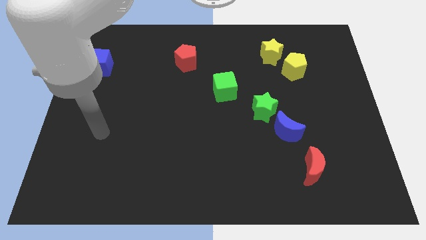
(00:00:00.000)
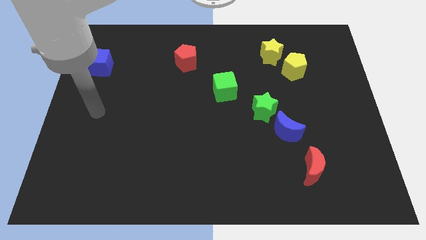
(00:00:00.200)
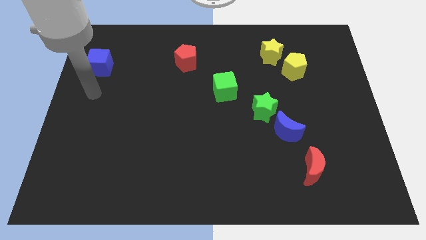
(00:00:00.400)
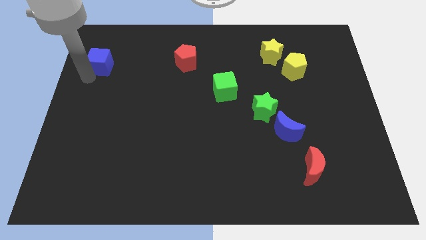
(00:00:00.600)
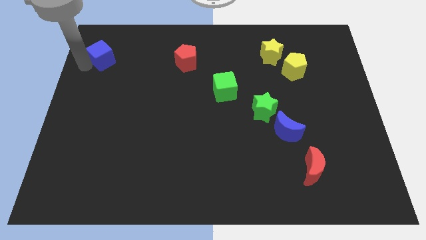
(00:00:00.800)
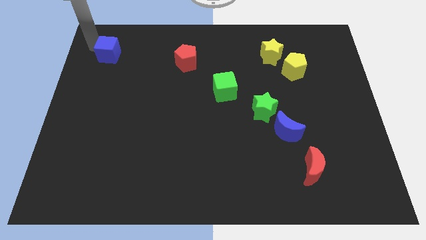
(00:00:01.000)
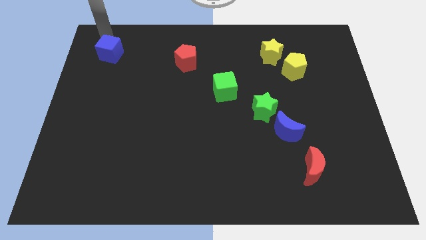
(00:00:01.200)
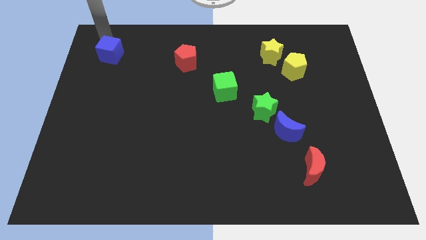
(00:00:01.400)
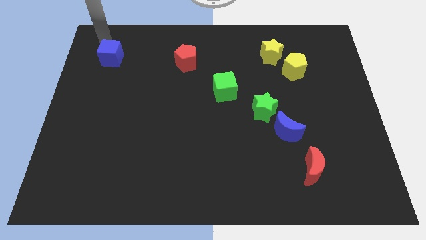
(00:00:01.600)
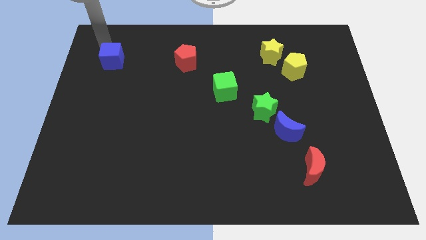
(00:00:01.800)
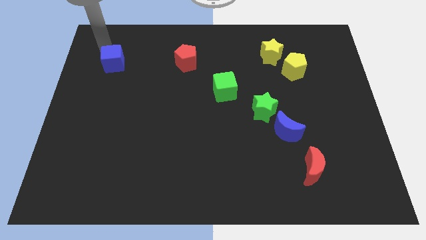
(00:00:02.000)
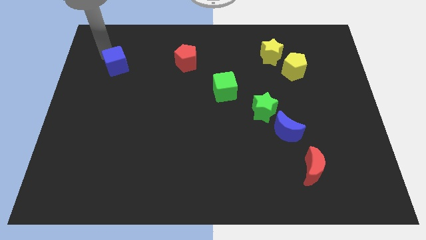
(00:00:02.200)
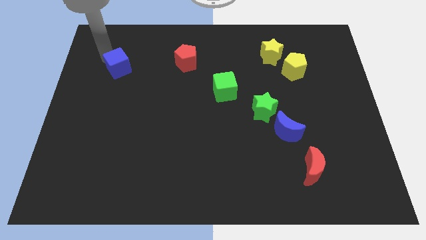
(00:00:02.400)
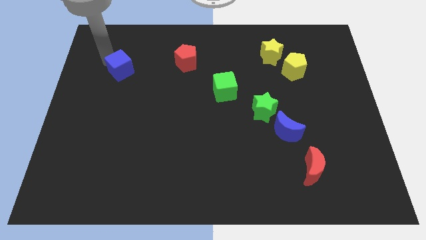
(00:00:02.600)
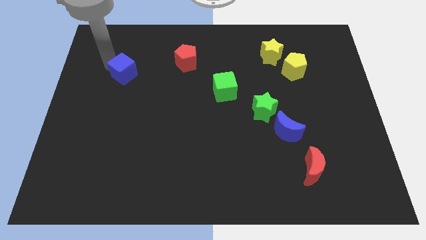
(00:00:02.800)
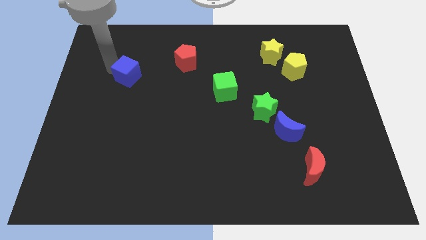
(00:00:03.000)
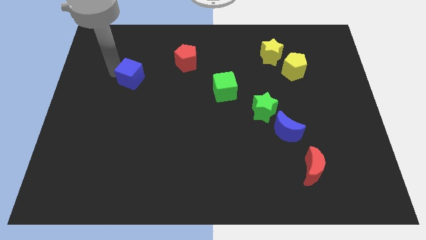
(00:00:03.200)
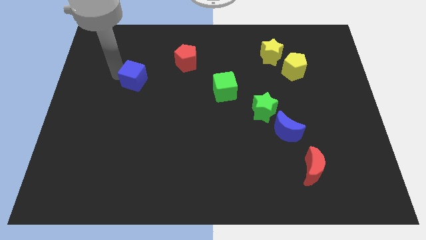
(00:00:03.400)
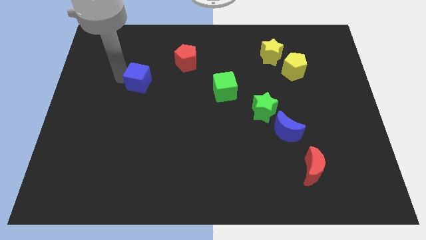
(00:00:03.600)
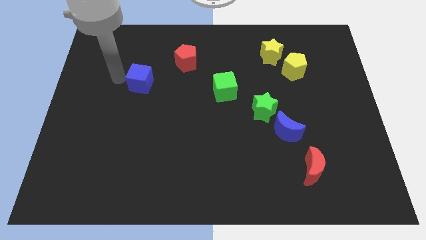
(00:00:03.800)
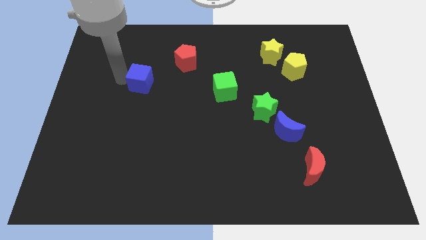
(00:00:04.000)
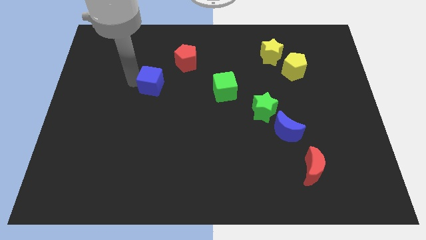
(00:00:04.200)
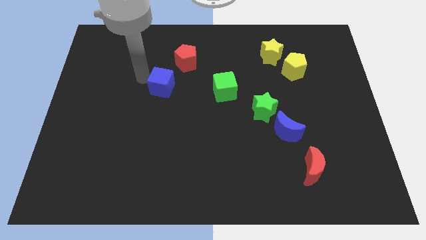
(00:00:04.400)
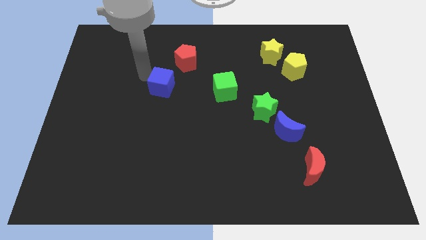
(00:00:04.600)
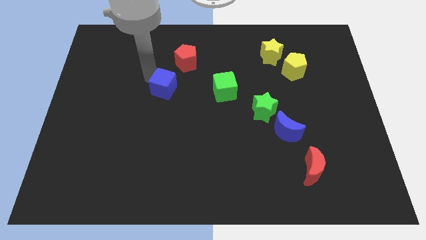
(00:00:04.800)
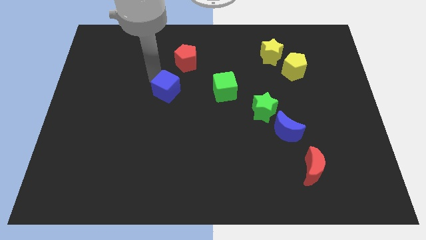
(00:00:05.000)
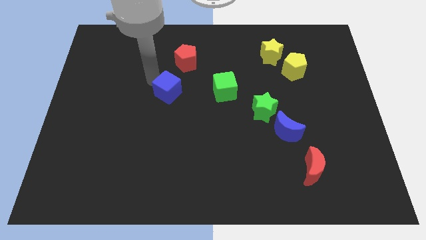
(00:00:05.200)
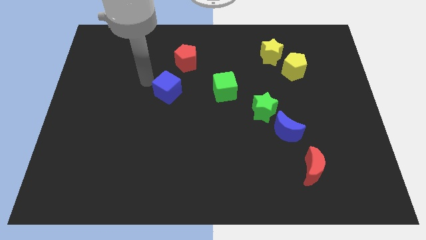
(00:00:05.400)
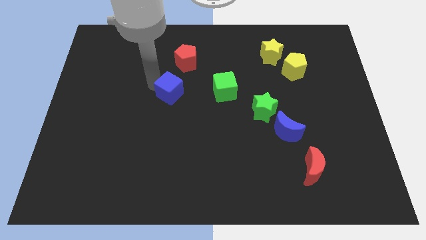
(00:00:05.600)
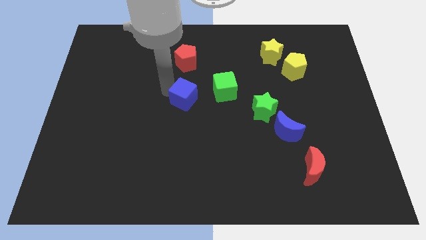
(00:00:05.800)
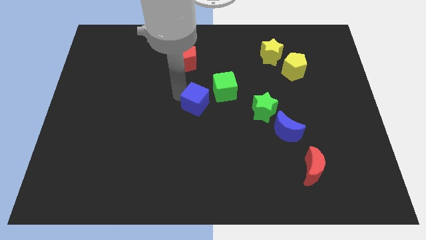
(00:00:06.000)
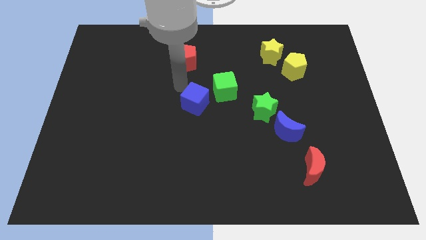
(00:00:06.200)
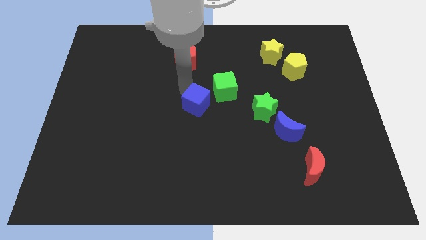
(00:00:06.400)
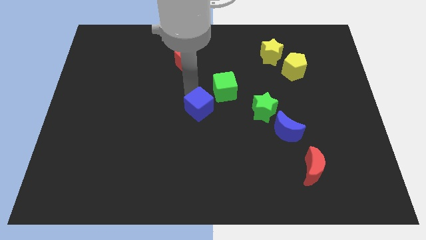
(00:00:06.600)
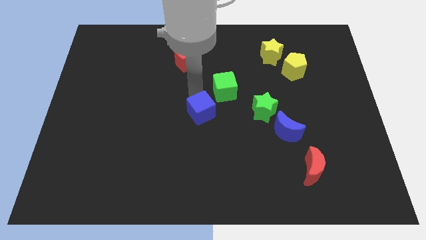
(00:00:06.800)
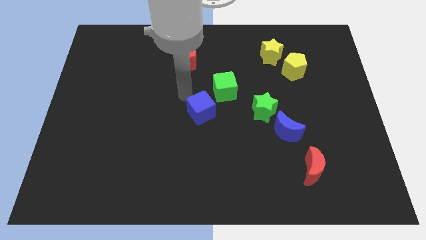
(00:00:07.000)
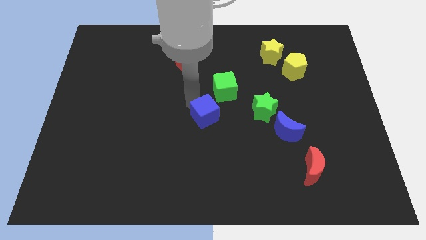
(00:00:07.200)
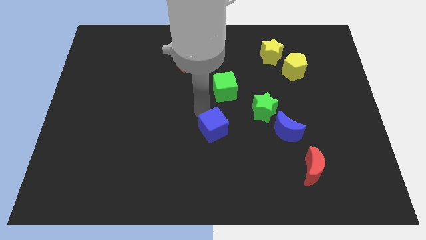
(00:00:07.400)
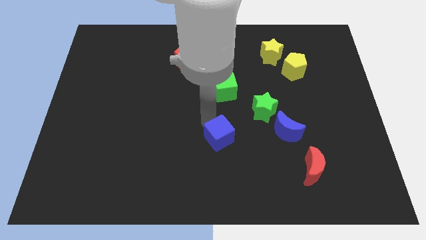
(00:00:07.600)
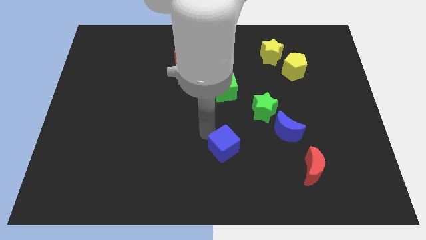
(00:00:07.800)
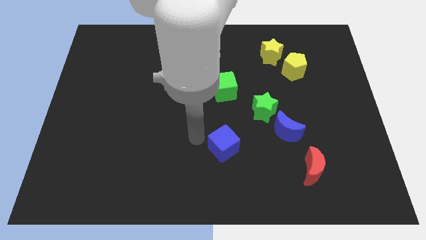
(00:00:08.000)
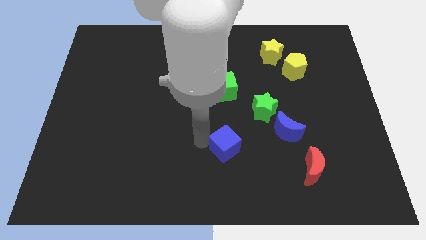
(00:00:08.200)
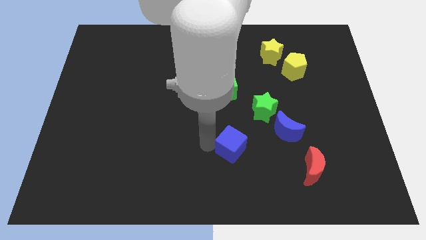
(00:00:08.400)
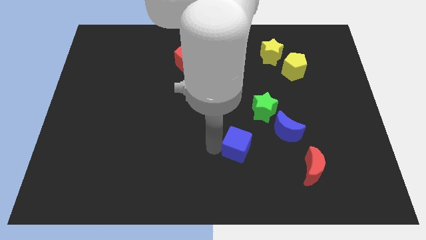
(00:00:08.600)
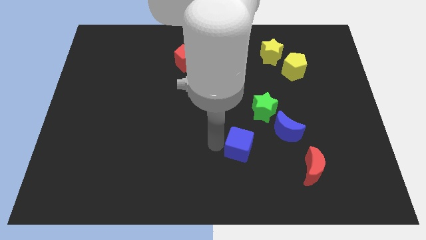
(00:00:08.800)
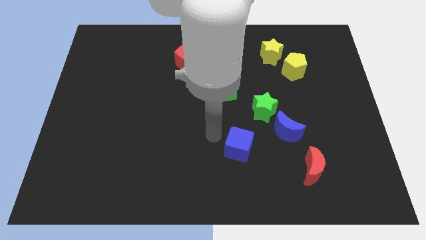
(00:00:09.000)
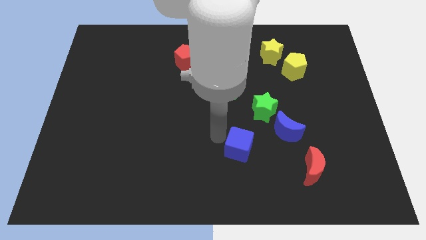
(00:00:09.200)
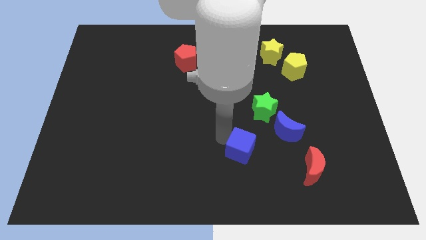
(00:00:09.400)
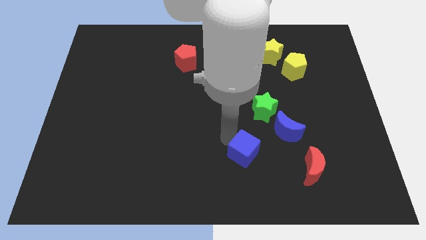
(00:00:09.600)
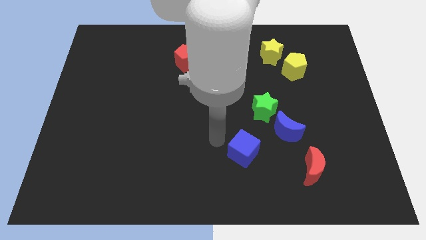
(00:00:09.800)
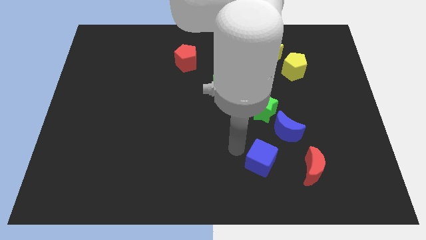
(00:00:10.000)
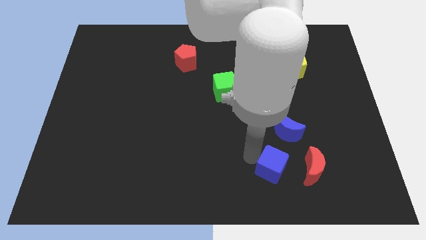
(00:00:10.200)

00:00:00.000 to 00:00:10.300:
slide the blue cube below the blue moon

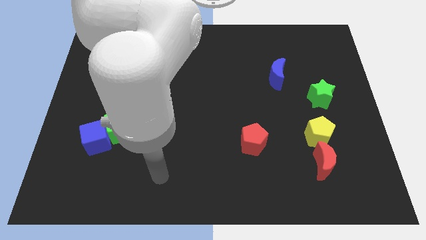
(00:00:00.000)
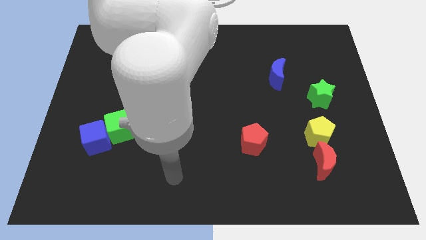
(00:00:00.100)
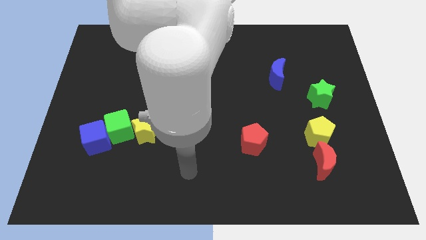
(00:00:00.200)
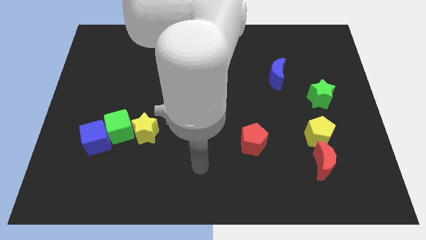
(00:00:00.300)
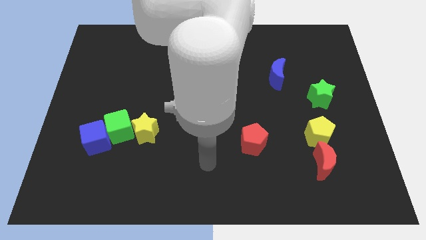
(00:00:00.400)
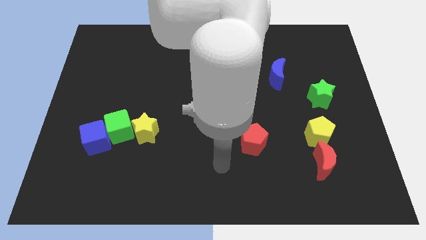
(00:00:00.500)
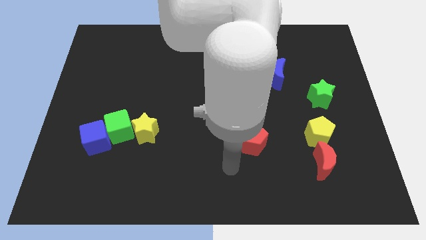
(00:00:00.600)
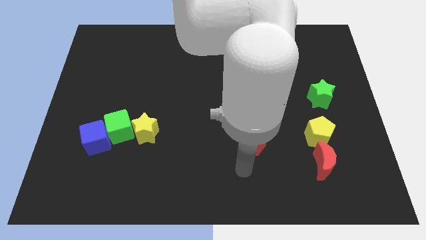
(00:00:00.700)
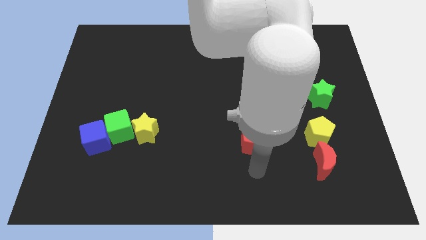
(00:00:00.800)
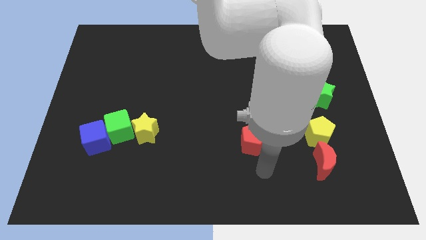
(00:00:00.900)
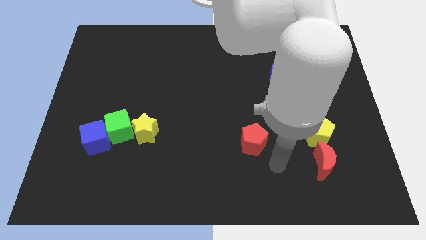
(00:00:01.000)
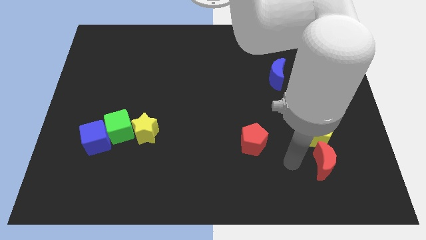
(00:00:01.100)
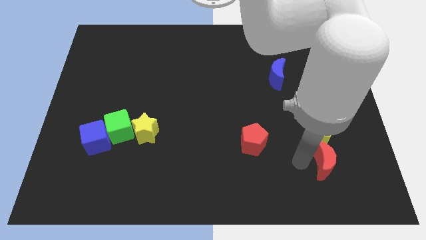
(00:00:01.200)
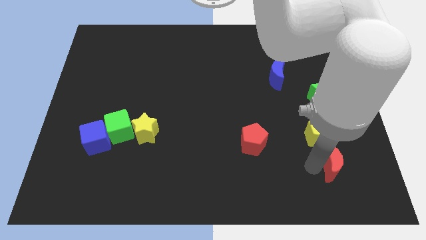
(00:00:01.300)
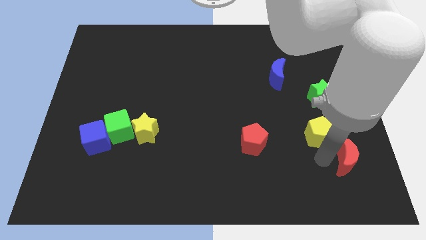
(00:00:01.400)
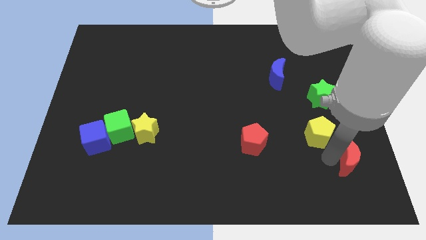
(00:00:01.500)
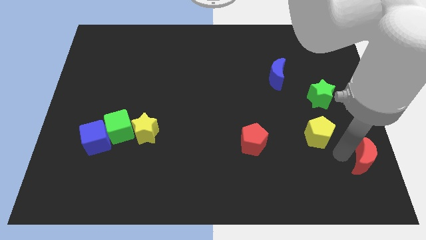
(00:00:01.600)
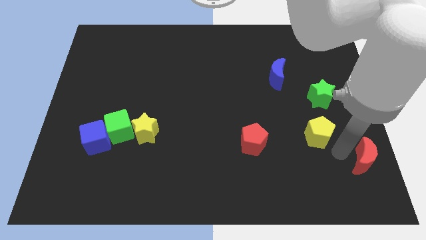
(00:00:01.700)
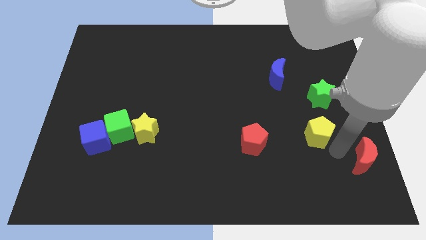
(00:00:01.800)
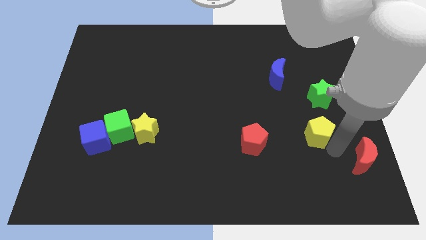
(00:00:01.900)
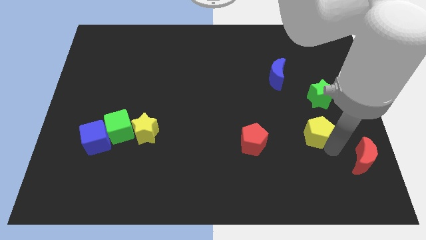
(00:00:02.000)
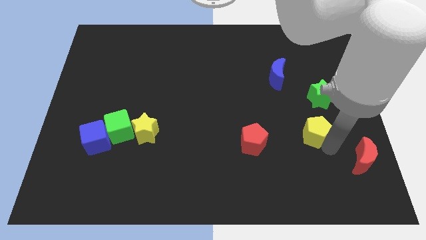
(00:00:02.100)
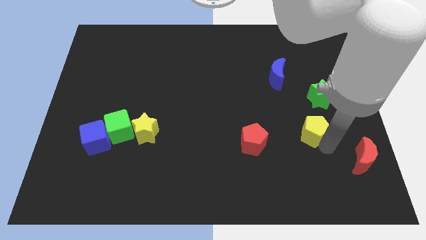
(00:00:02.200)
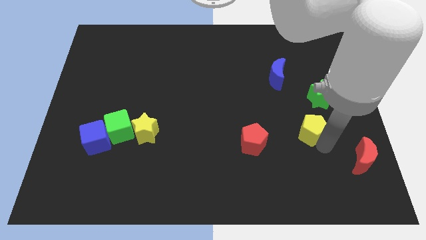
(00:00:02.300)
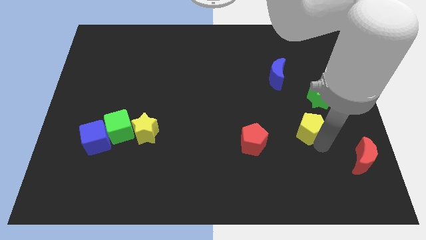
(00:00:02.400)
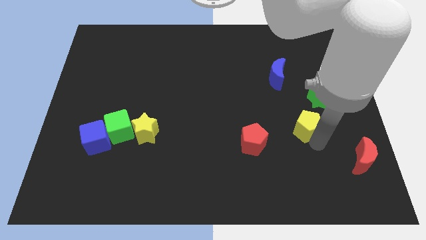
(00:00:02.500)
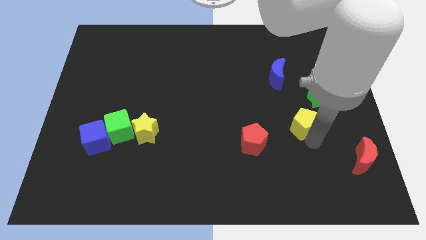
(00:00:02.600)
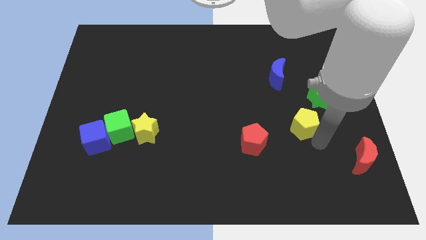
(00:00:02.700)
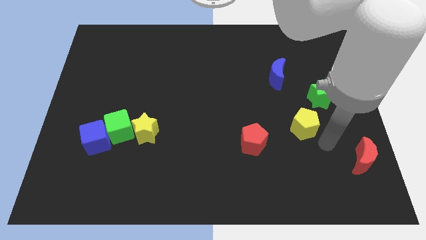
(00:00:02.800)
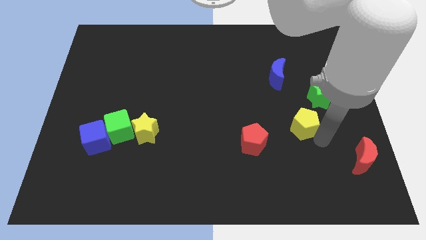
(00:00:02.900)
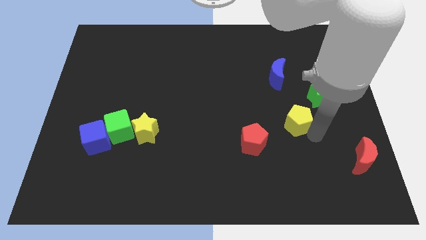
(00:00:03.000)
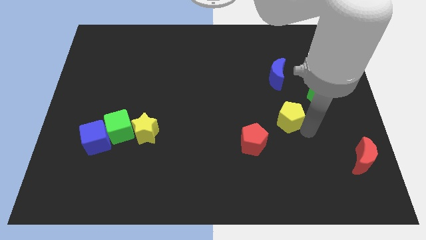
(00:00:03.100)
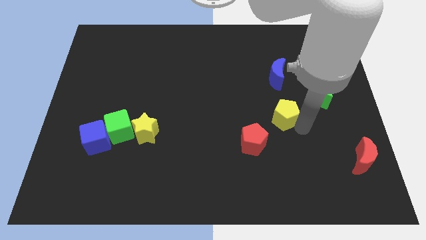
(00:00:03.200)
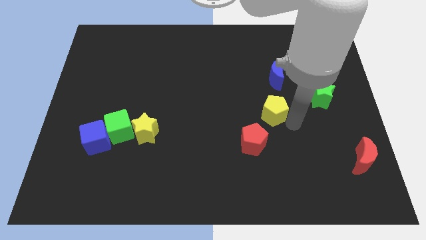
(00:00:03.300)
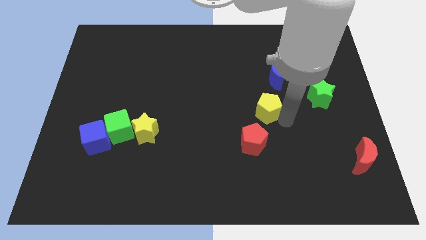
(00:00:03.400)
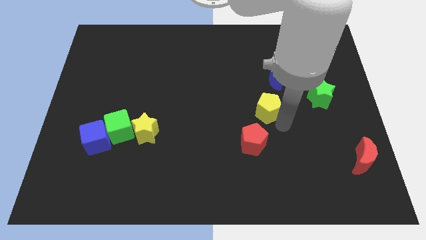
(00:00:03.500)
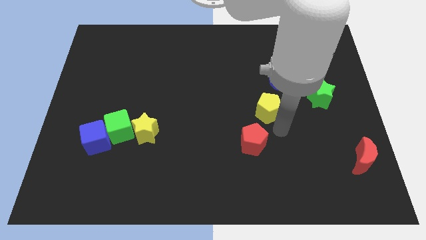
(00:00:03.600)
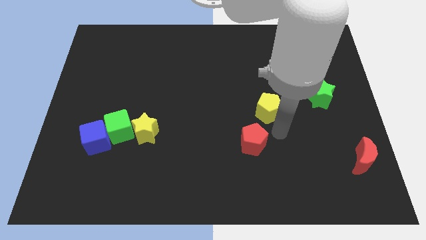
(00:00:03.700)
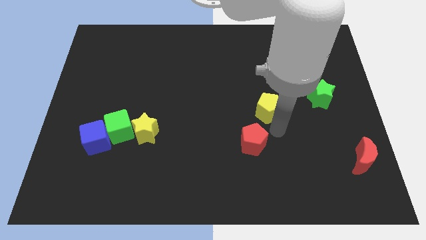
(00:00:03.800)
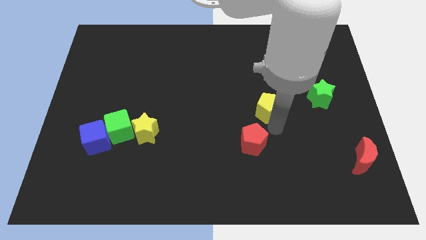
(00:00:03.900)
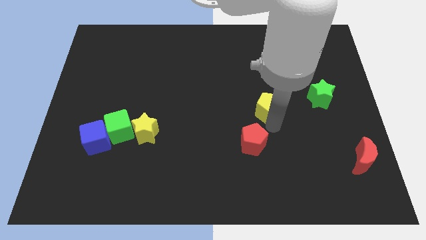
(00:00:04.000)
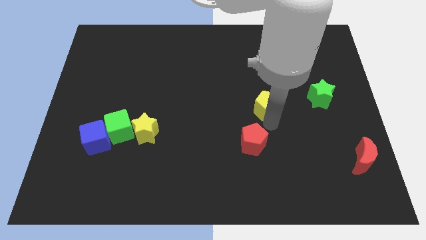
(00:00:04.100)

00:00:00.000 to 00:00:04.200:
move the yellow pentagon to the bottom left of the blue moon
